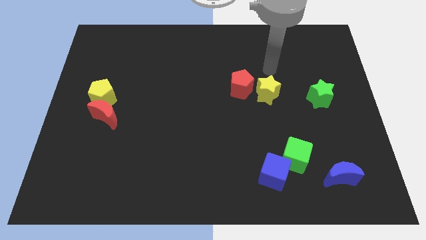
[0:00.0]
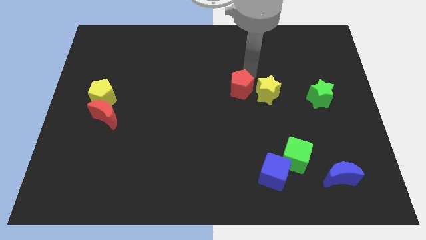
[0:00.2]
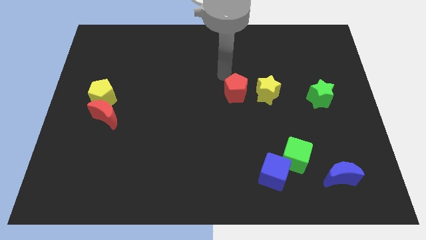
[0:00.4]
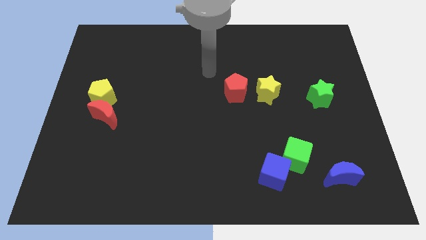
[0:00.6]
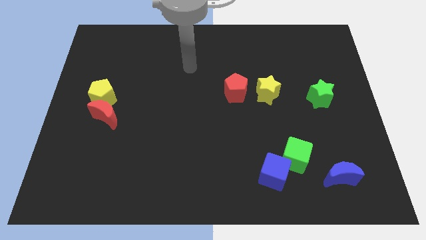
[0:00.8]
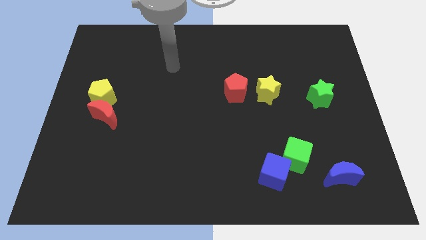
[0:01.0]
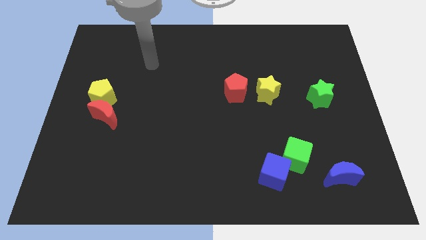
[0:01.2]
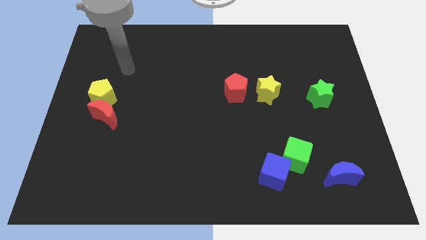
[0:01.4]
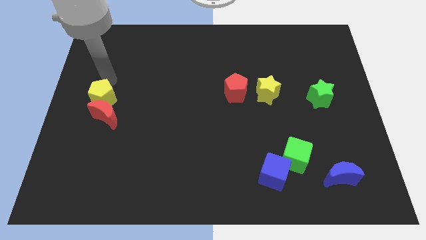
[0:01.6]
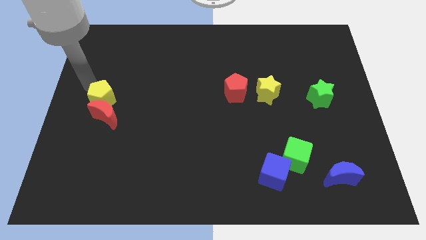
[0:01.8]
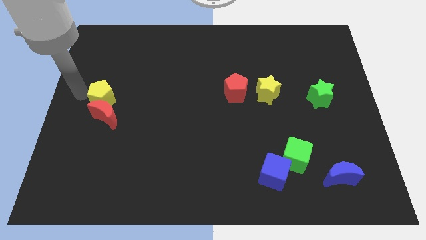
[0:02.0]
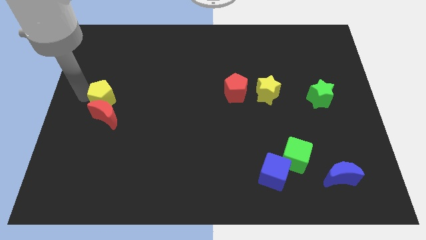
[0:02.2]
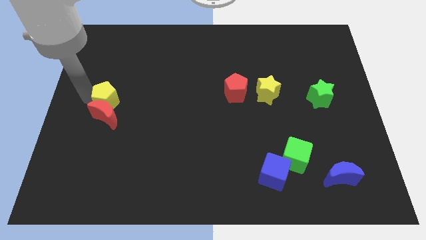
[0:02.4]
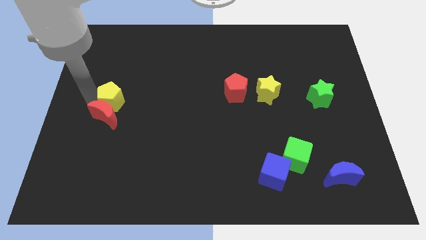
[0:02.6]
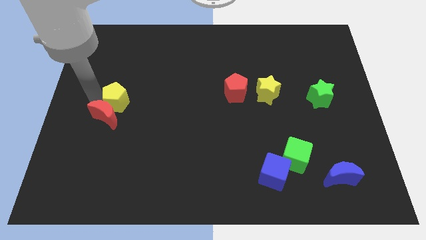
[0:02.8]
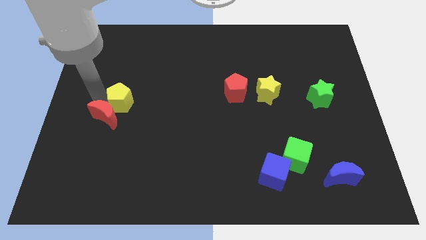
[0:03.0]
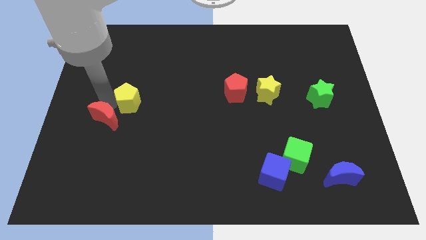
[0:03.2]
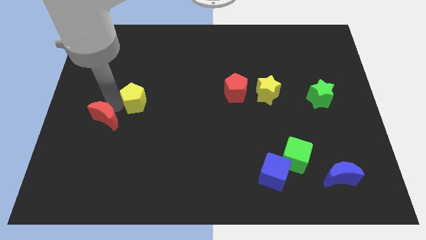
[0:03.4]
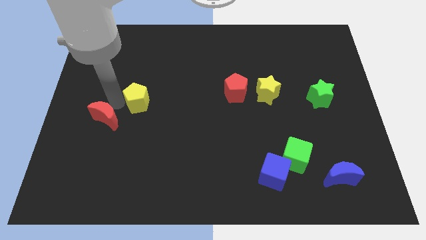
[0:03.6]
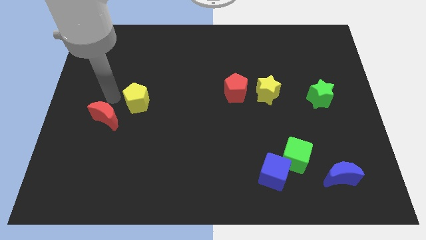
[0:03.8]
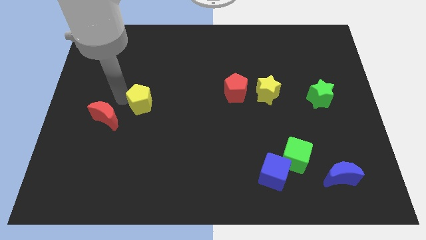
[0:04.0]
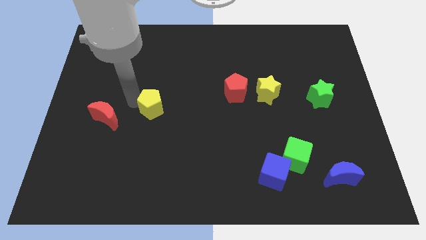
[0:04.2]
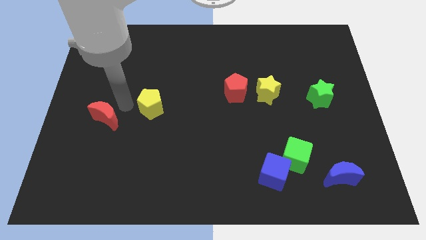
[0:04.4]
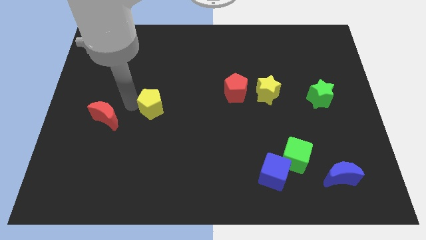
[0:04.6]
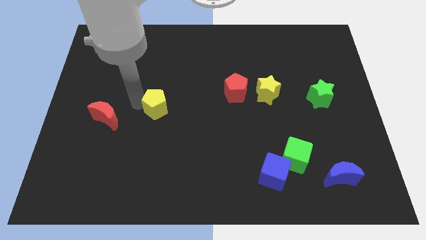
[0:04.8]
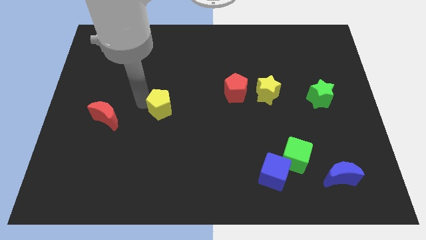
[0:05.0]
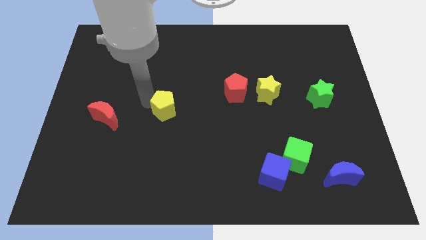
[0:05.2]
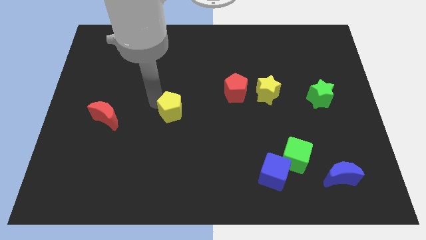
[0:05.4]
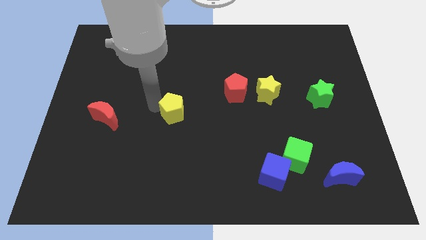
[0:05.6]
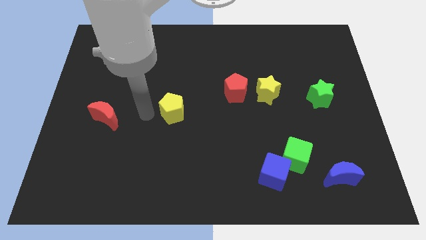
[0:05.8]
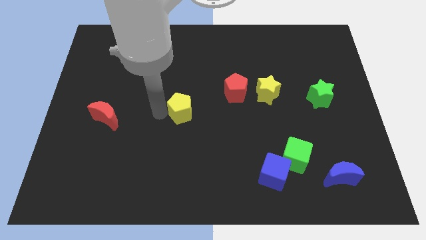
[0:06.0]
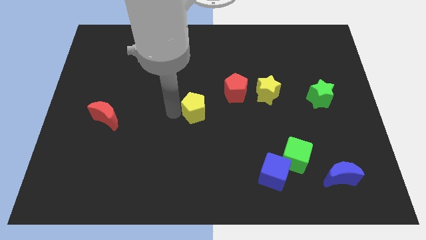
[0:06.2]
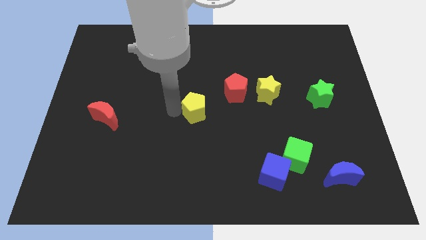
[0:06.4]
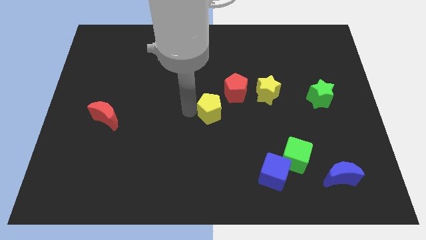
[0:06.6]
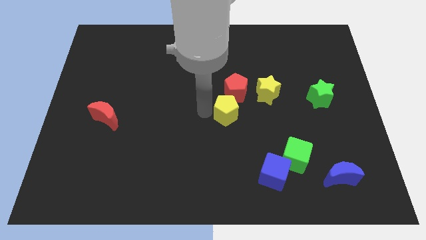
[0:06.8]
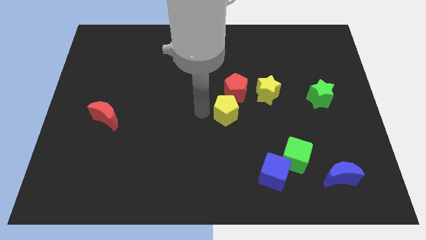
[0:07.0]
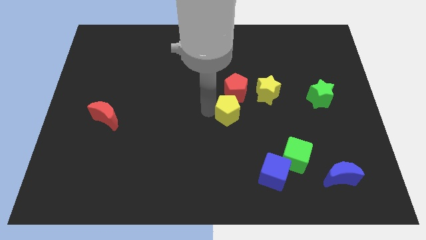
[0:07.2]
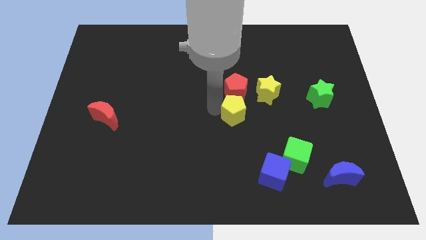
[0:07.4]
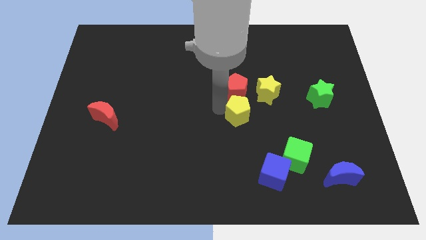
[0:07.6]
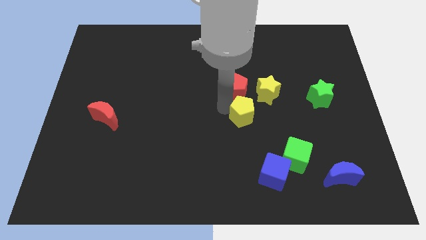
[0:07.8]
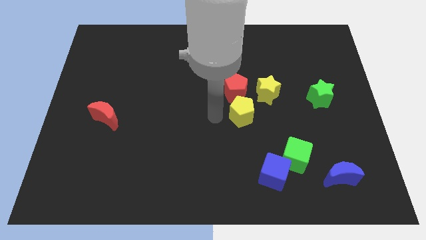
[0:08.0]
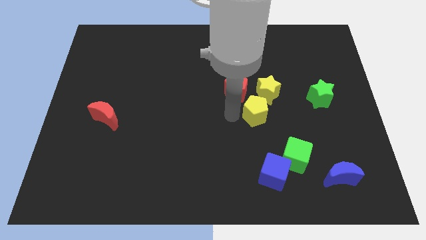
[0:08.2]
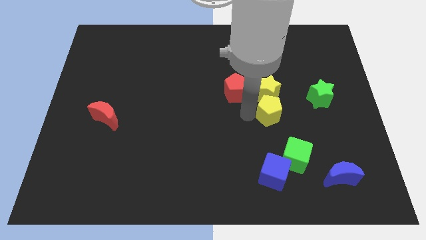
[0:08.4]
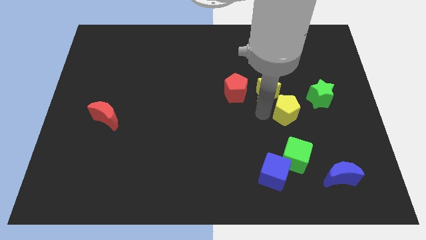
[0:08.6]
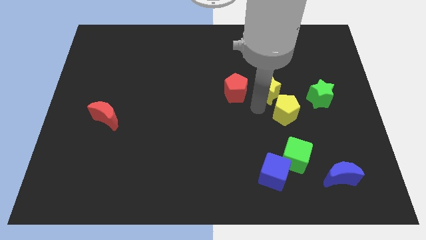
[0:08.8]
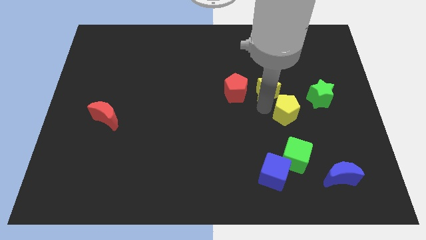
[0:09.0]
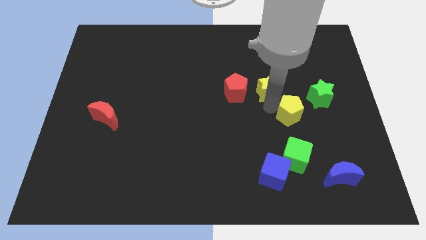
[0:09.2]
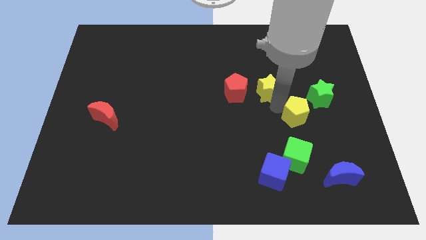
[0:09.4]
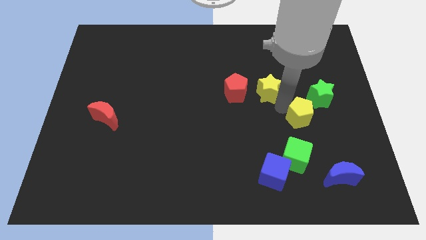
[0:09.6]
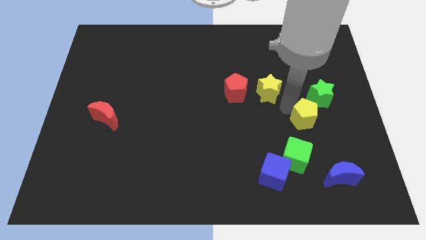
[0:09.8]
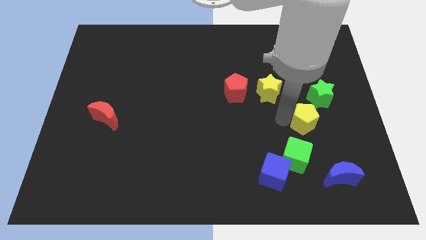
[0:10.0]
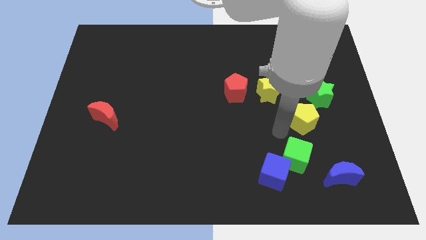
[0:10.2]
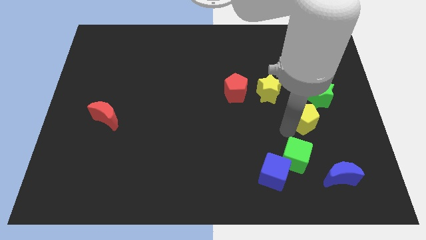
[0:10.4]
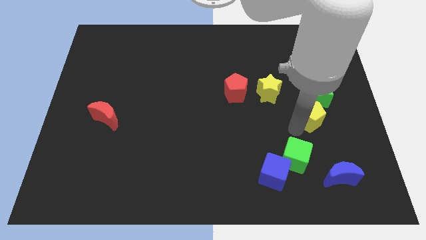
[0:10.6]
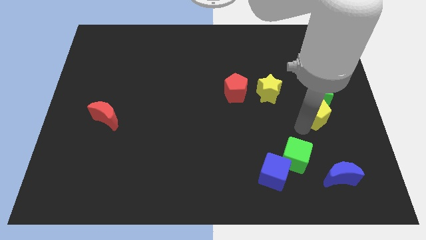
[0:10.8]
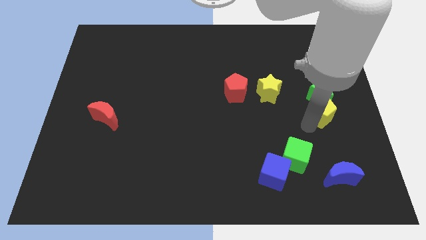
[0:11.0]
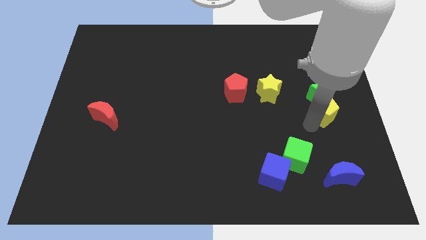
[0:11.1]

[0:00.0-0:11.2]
slide the yellow pentagon to the right side
